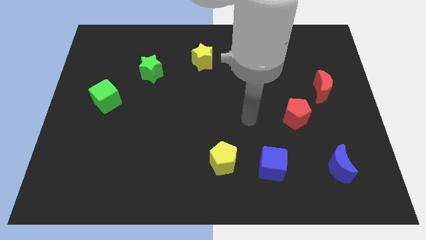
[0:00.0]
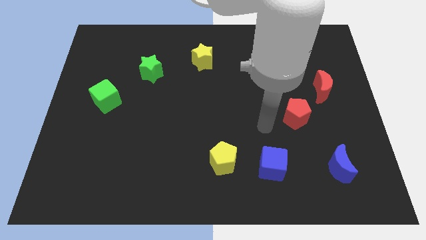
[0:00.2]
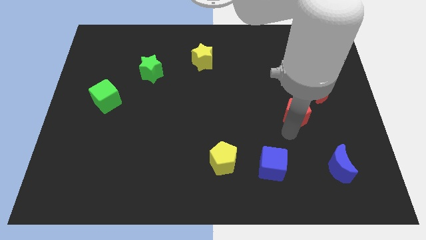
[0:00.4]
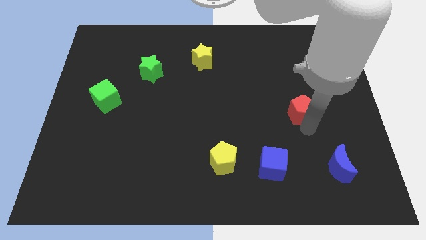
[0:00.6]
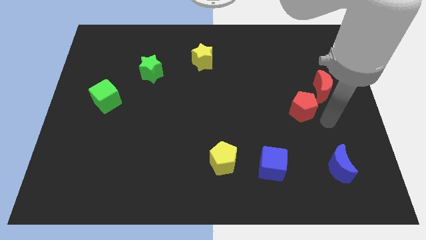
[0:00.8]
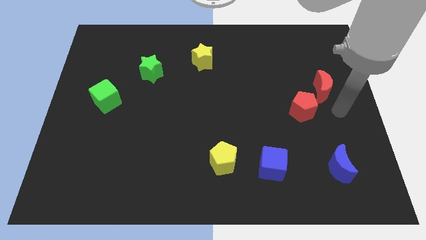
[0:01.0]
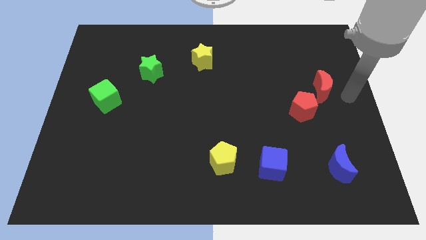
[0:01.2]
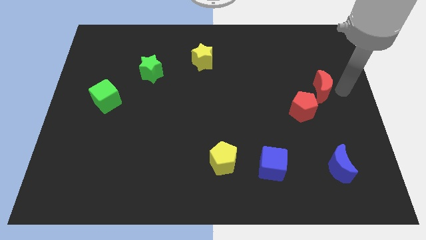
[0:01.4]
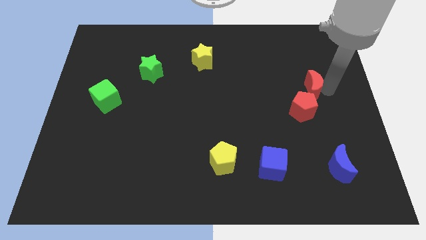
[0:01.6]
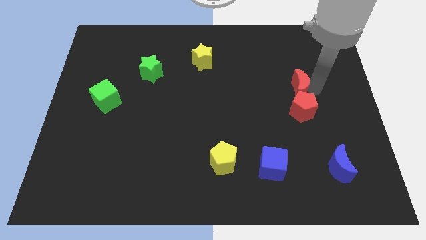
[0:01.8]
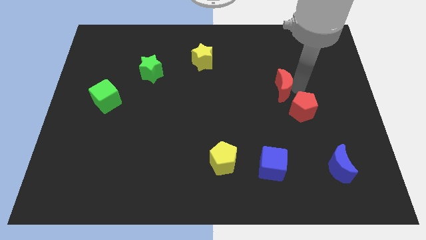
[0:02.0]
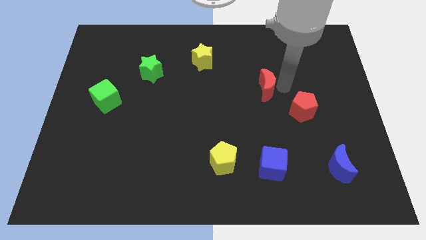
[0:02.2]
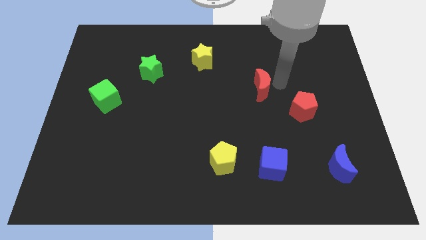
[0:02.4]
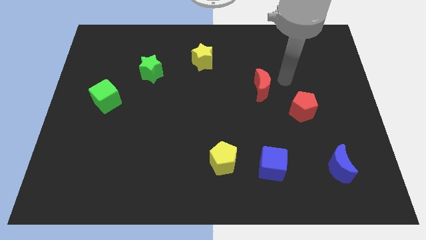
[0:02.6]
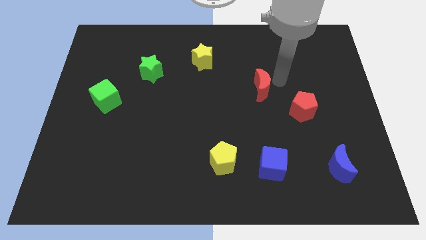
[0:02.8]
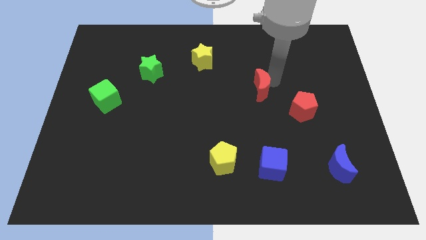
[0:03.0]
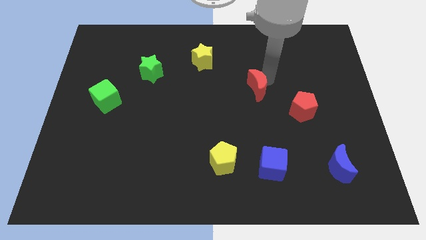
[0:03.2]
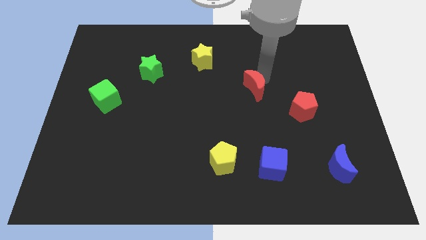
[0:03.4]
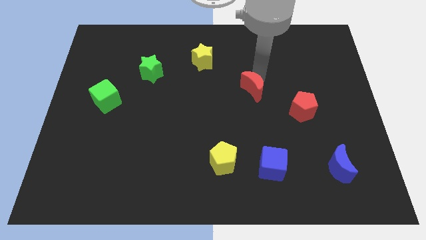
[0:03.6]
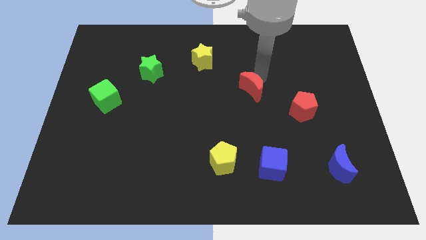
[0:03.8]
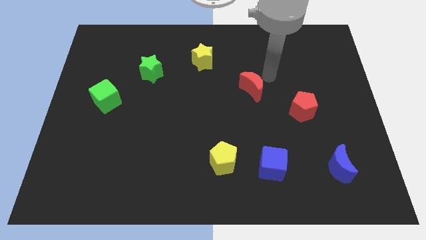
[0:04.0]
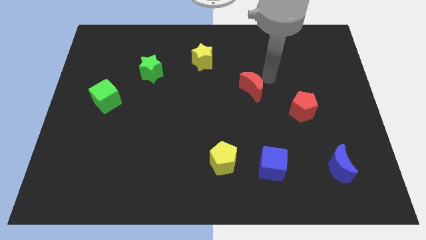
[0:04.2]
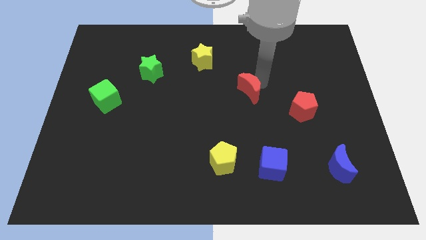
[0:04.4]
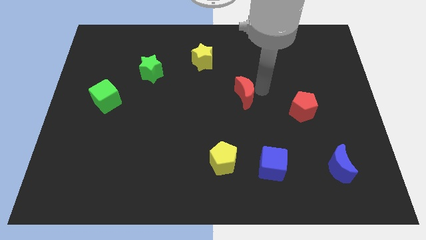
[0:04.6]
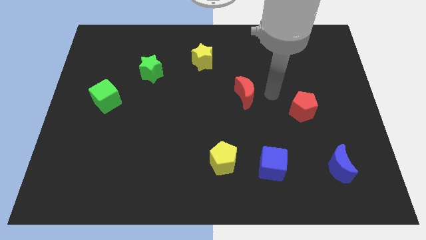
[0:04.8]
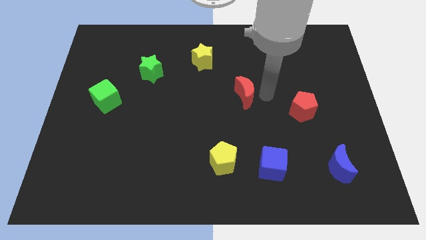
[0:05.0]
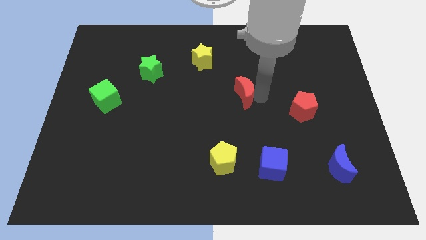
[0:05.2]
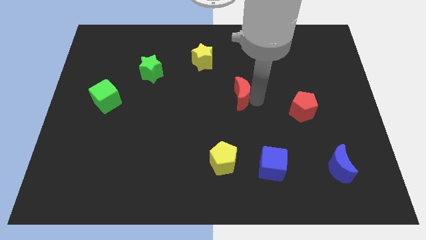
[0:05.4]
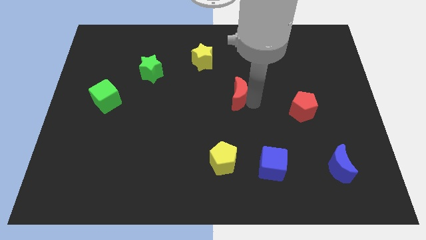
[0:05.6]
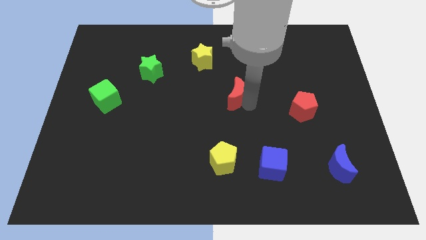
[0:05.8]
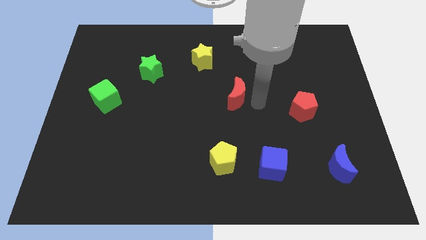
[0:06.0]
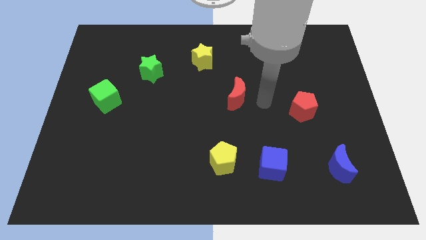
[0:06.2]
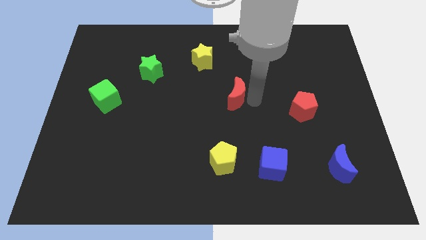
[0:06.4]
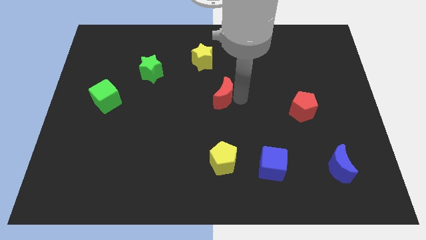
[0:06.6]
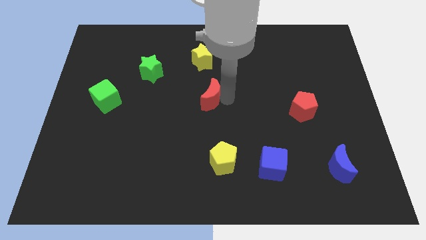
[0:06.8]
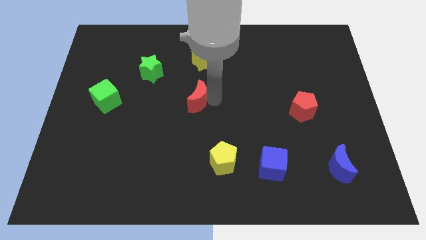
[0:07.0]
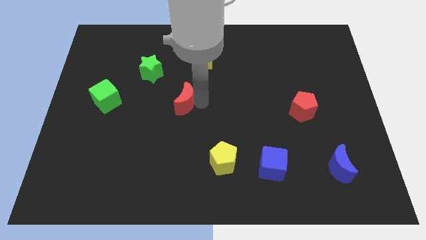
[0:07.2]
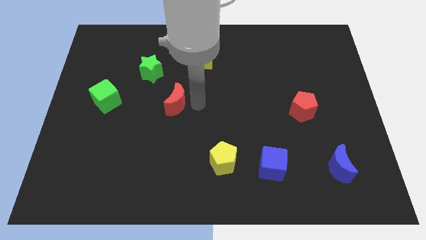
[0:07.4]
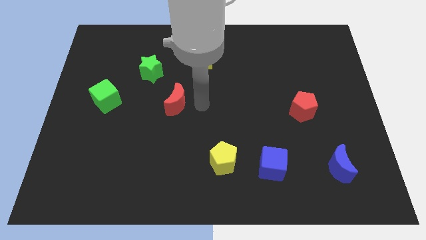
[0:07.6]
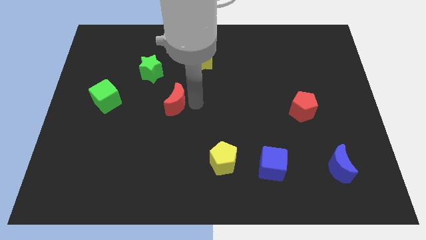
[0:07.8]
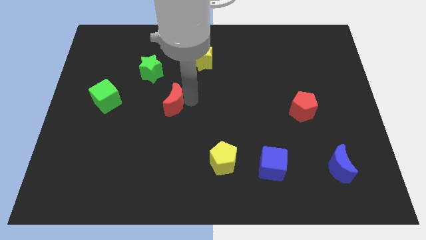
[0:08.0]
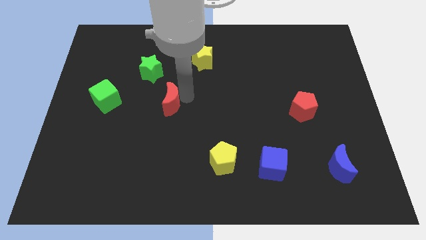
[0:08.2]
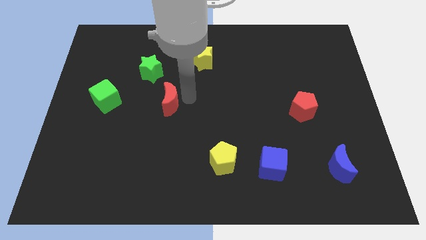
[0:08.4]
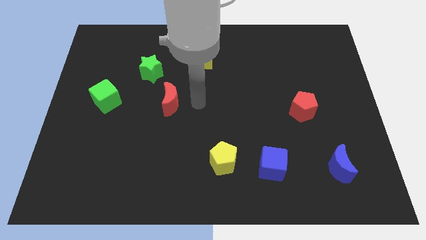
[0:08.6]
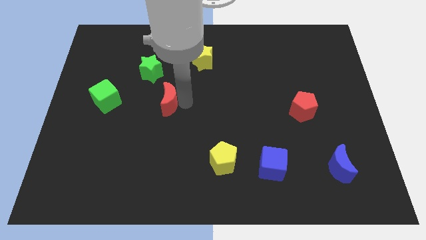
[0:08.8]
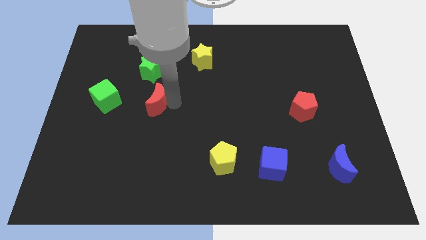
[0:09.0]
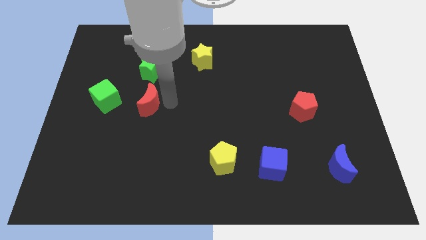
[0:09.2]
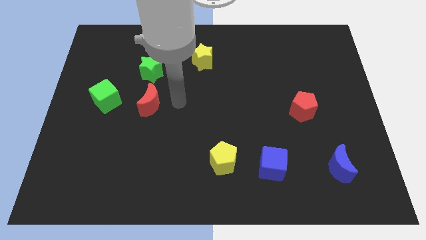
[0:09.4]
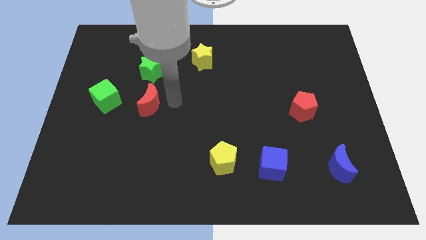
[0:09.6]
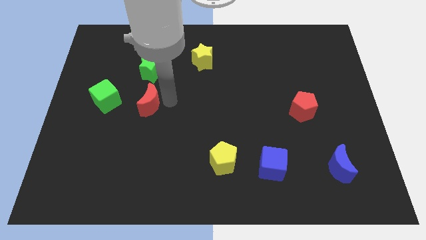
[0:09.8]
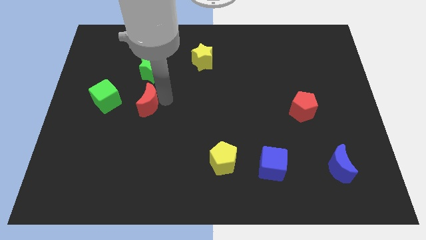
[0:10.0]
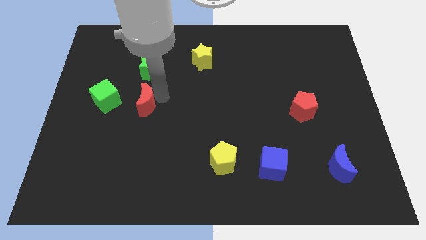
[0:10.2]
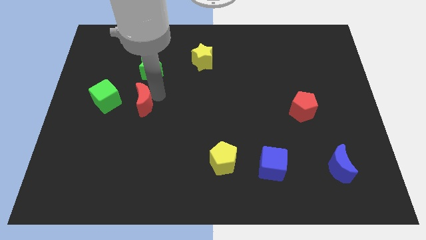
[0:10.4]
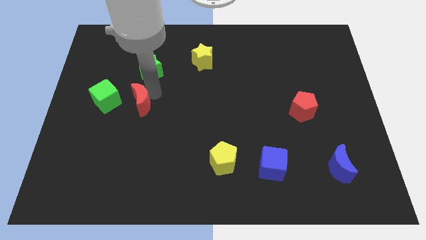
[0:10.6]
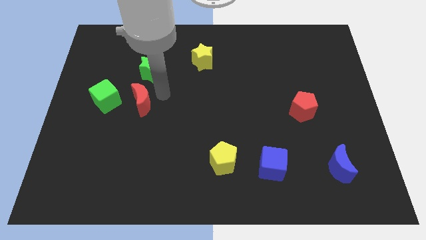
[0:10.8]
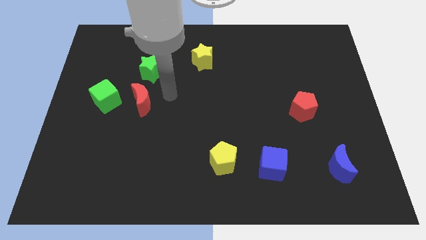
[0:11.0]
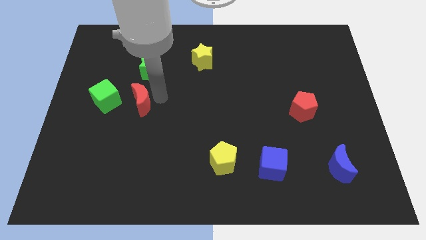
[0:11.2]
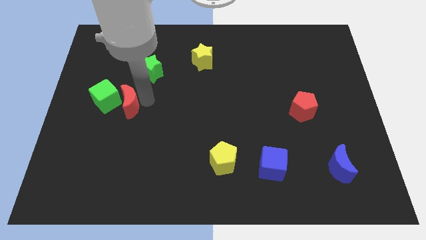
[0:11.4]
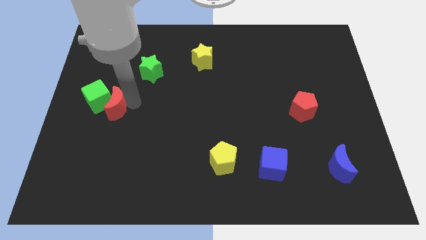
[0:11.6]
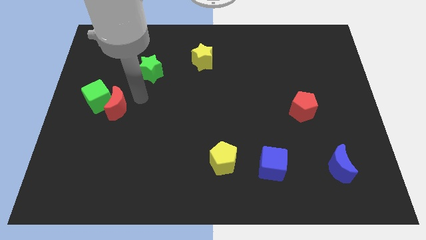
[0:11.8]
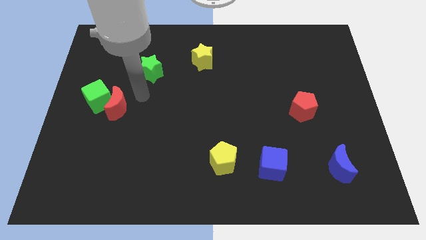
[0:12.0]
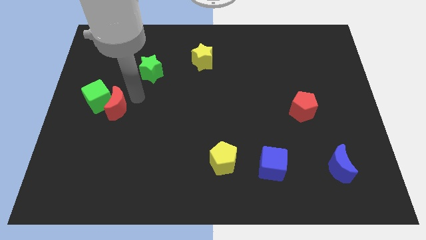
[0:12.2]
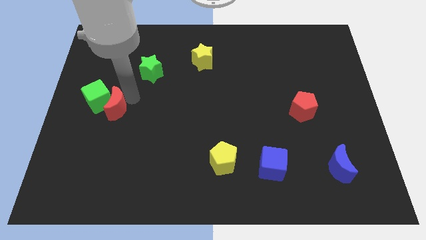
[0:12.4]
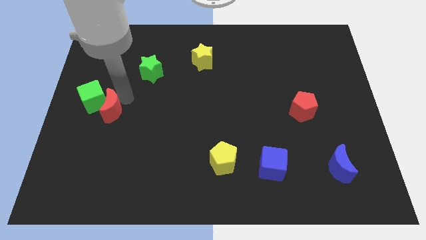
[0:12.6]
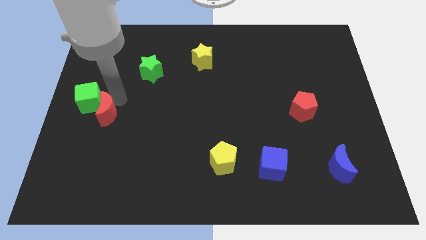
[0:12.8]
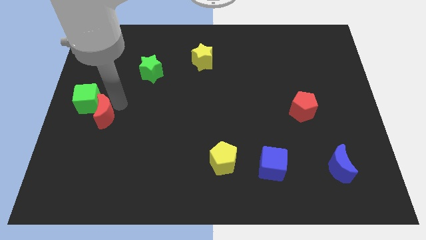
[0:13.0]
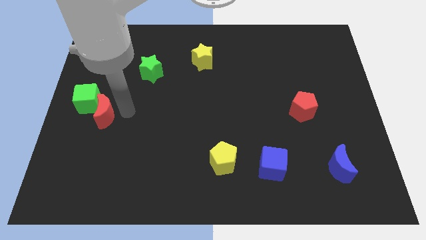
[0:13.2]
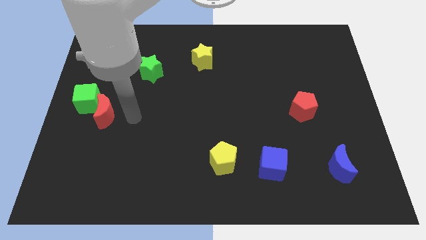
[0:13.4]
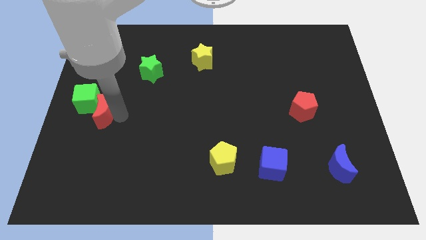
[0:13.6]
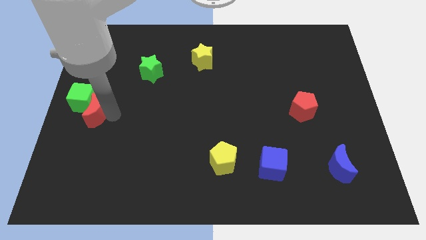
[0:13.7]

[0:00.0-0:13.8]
put the red moon to the left side
